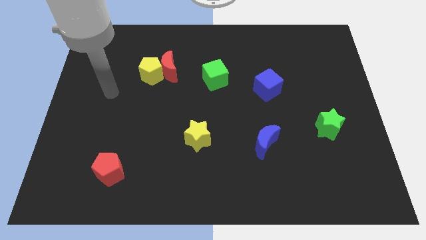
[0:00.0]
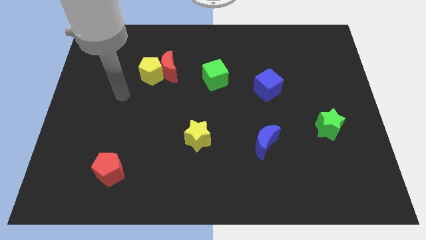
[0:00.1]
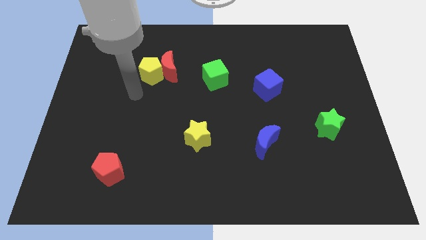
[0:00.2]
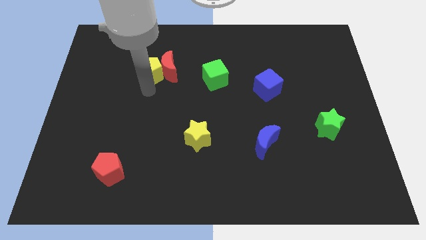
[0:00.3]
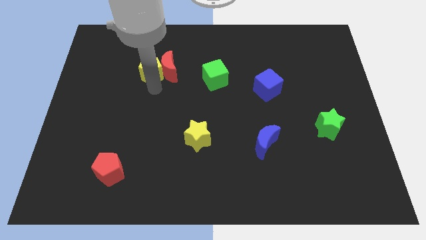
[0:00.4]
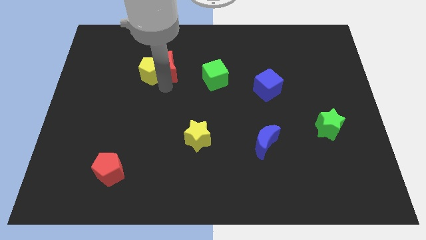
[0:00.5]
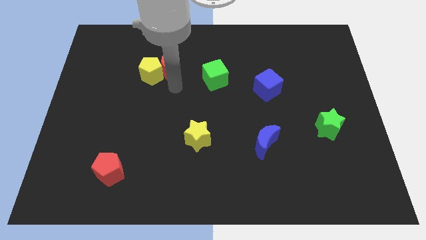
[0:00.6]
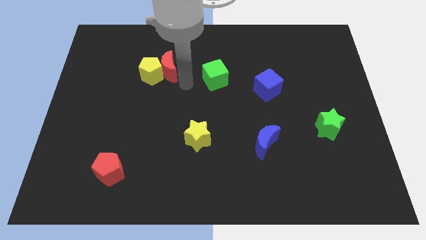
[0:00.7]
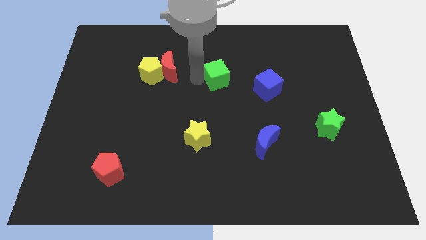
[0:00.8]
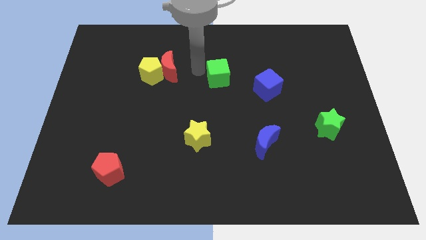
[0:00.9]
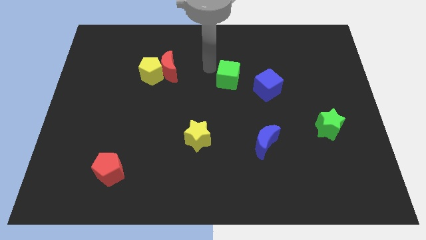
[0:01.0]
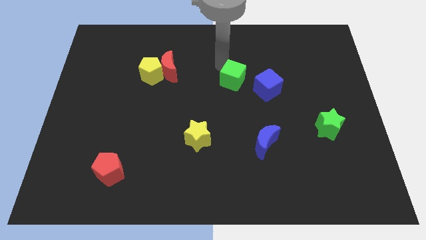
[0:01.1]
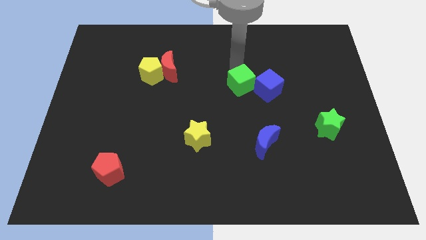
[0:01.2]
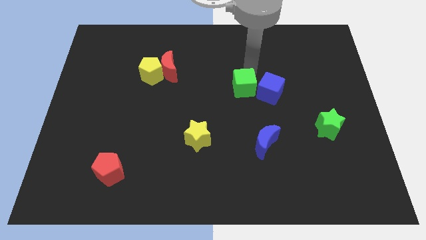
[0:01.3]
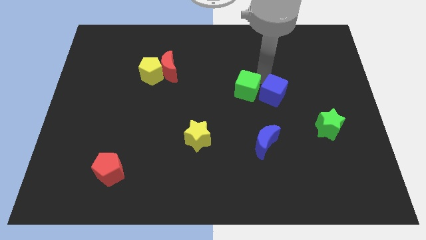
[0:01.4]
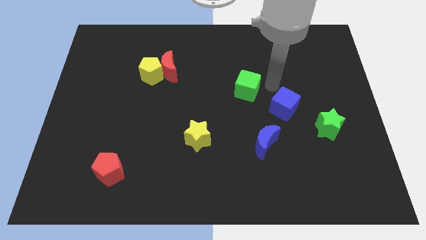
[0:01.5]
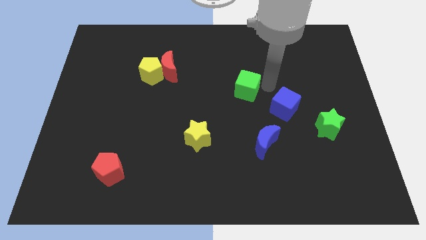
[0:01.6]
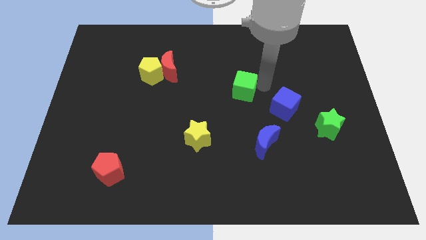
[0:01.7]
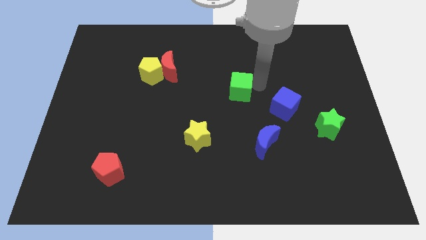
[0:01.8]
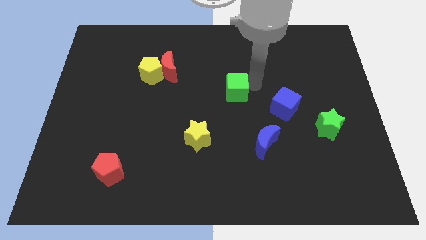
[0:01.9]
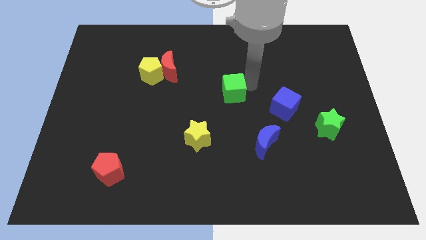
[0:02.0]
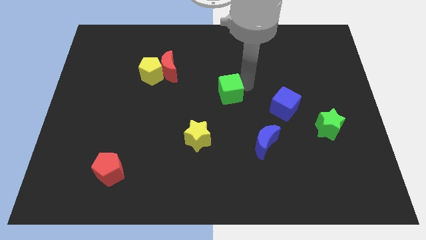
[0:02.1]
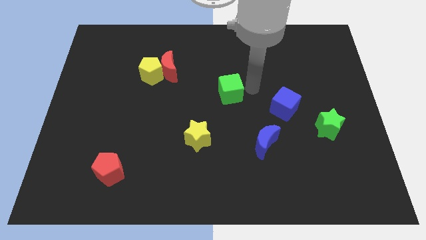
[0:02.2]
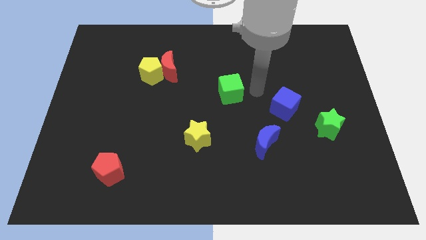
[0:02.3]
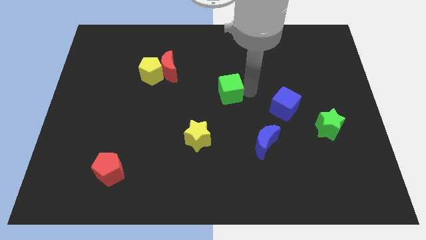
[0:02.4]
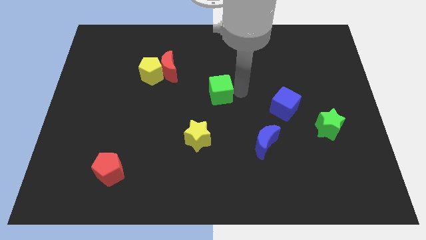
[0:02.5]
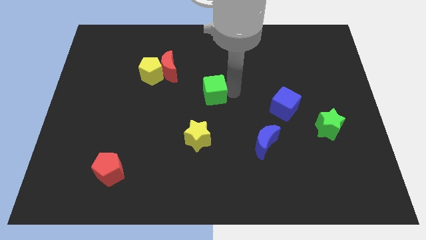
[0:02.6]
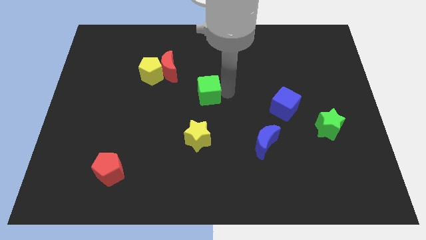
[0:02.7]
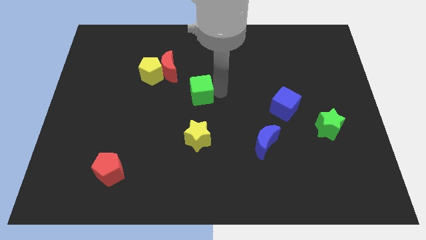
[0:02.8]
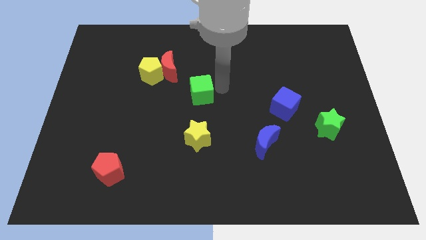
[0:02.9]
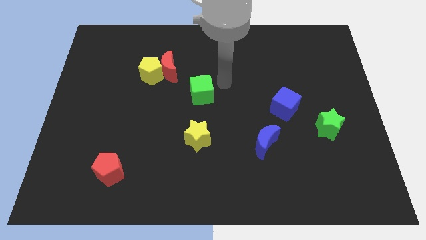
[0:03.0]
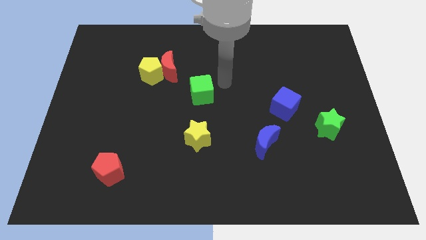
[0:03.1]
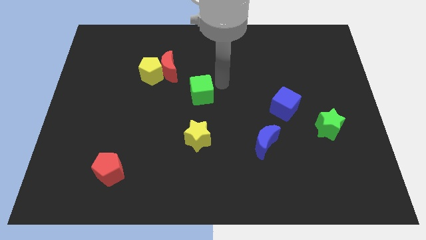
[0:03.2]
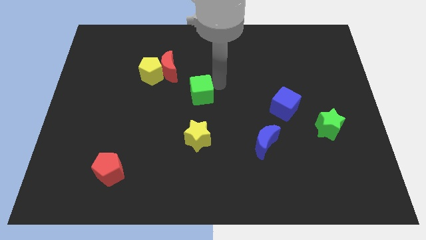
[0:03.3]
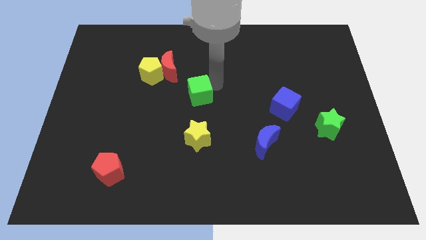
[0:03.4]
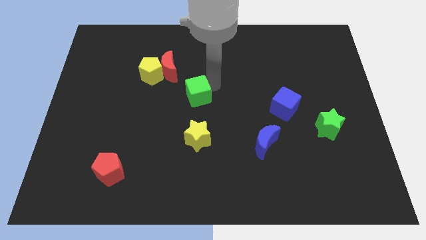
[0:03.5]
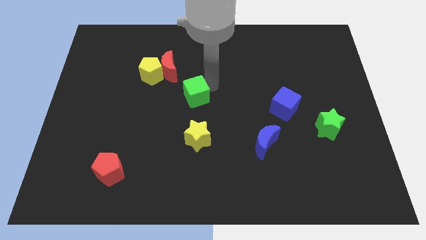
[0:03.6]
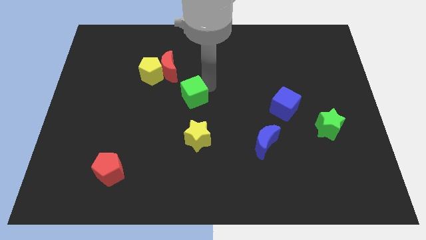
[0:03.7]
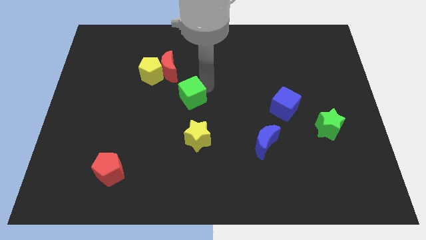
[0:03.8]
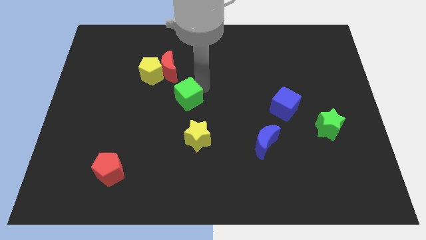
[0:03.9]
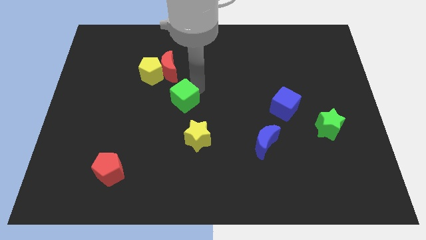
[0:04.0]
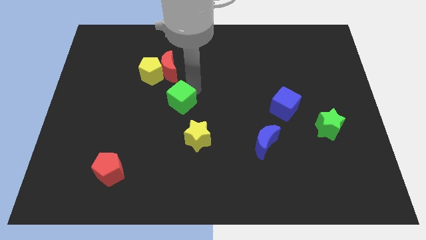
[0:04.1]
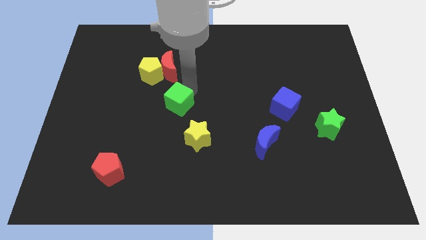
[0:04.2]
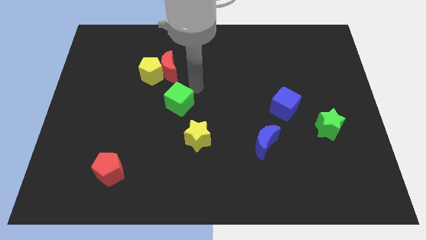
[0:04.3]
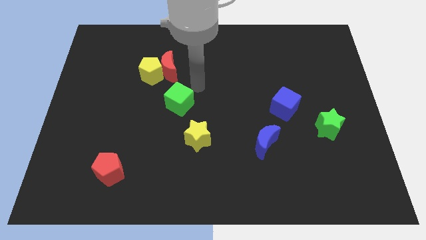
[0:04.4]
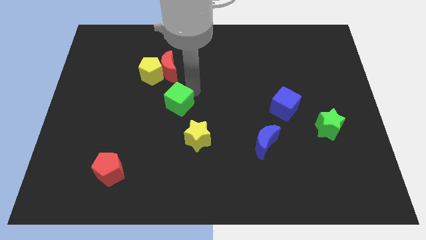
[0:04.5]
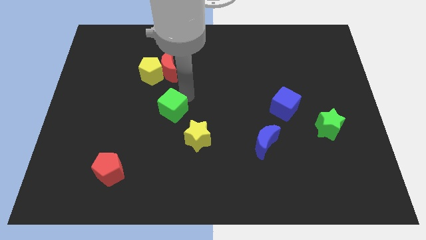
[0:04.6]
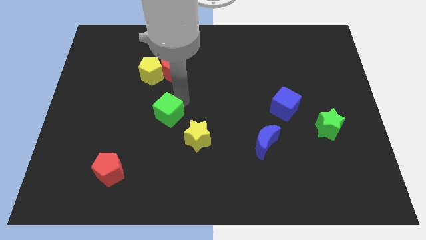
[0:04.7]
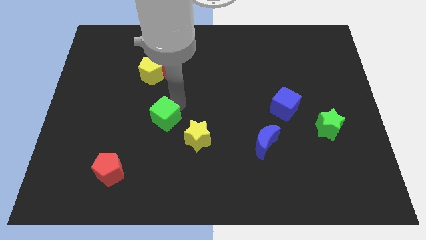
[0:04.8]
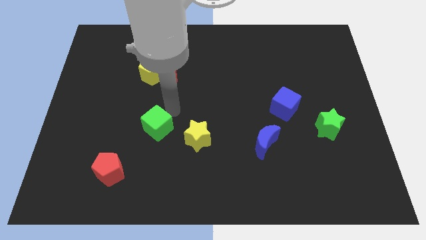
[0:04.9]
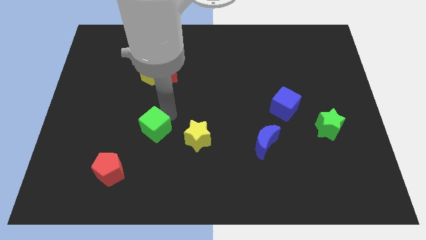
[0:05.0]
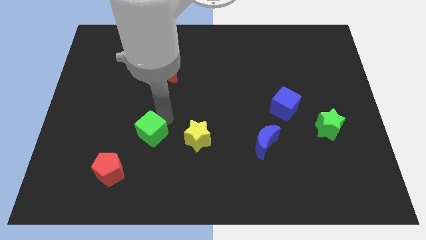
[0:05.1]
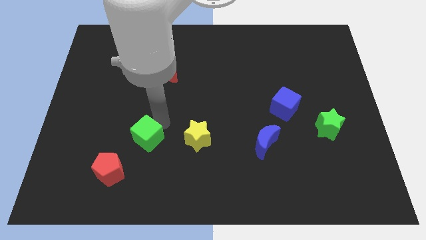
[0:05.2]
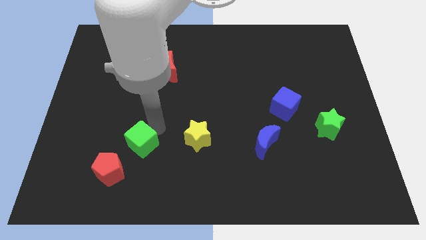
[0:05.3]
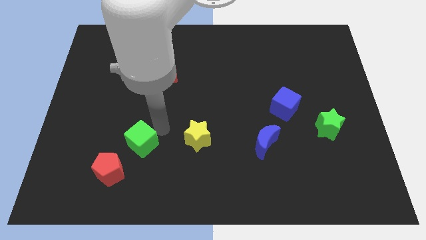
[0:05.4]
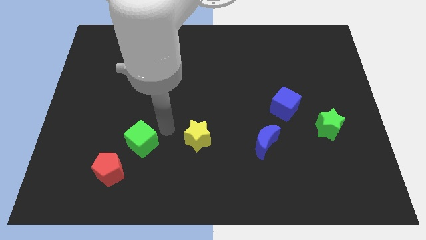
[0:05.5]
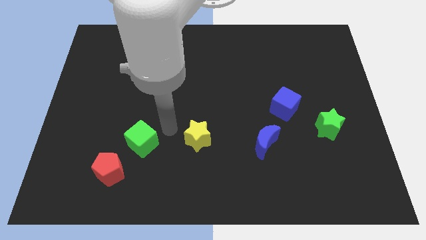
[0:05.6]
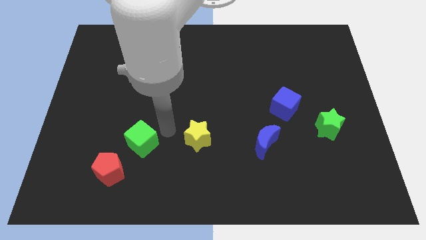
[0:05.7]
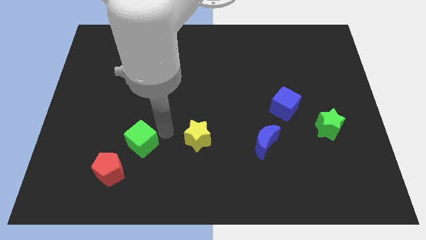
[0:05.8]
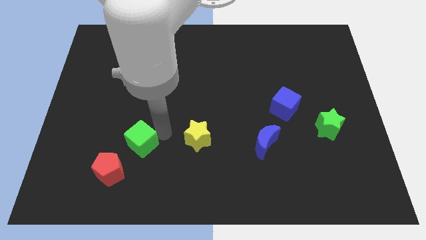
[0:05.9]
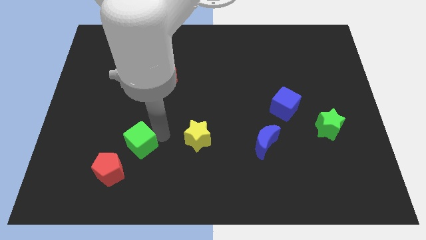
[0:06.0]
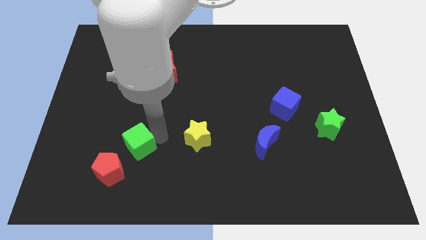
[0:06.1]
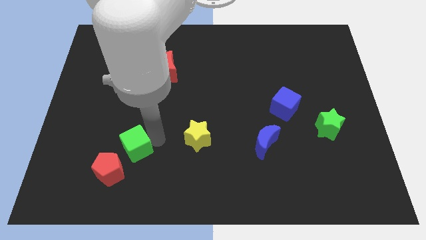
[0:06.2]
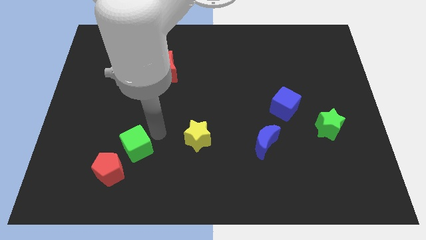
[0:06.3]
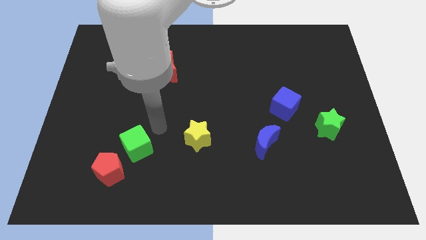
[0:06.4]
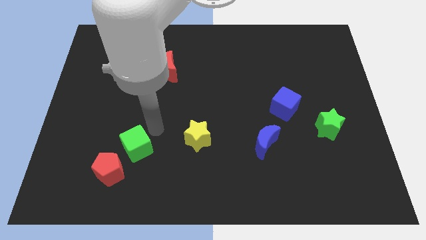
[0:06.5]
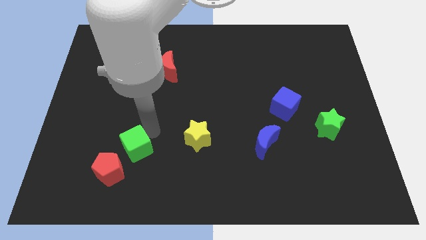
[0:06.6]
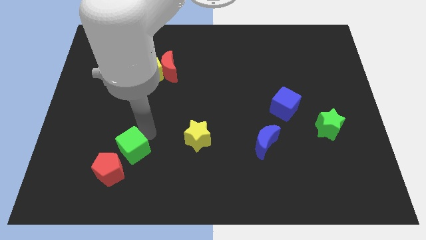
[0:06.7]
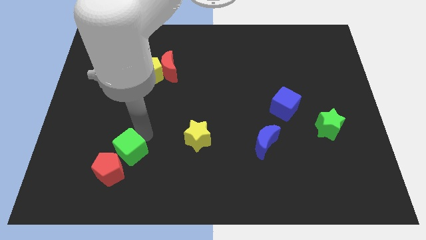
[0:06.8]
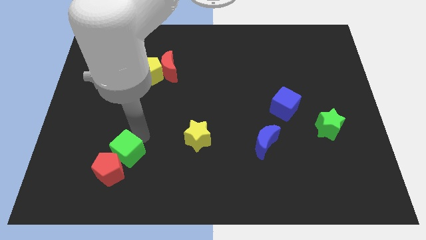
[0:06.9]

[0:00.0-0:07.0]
push the green cube towards the red pentagon

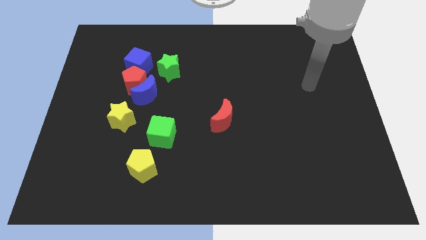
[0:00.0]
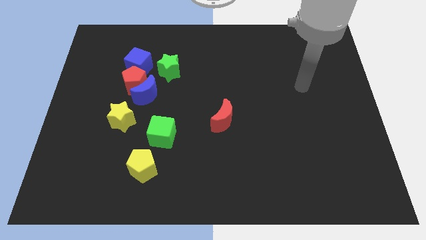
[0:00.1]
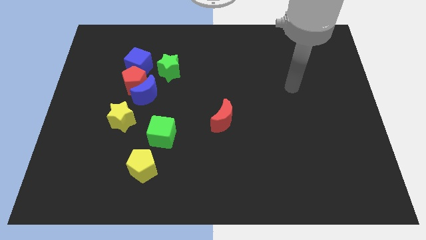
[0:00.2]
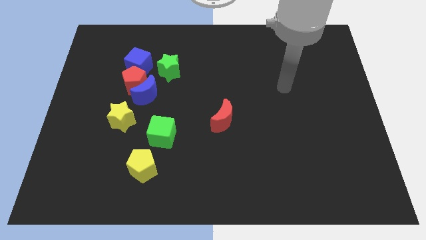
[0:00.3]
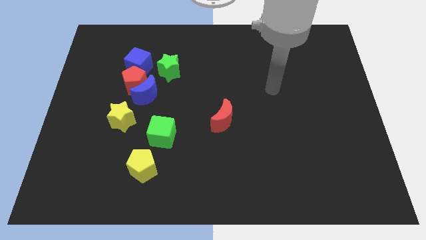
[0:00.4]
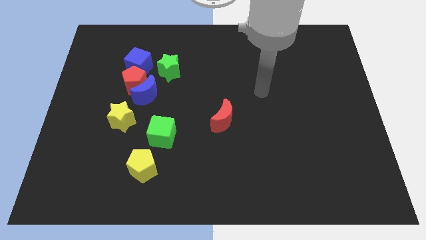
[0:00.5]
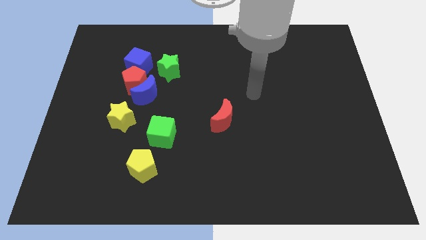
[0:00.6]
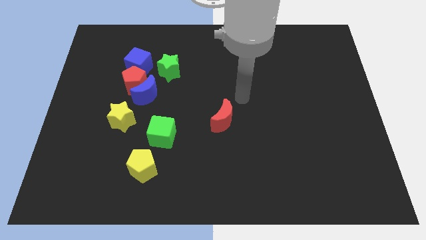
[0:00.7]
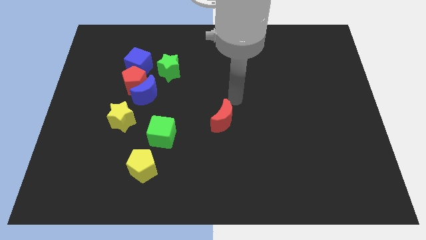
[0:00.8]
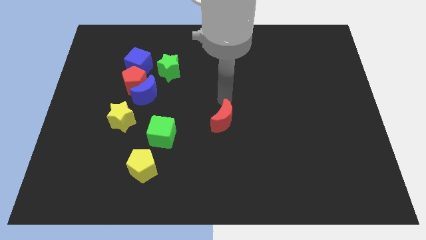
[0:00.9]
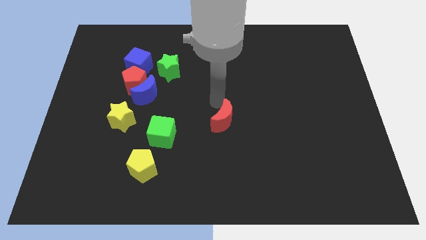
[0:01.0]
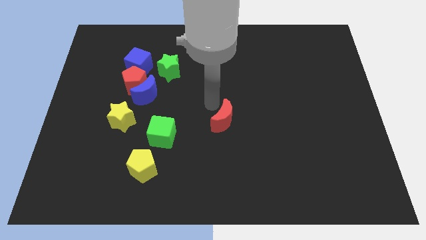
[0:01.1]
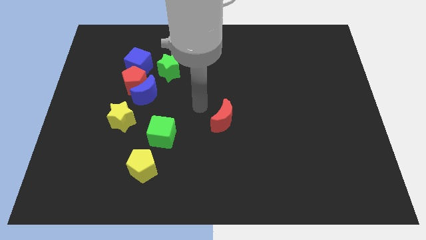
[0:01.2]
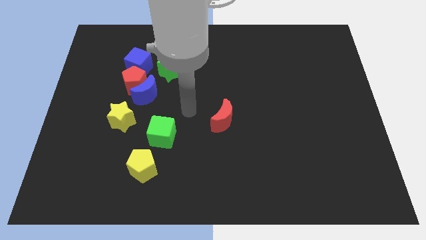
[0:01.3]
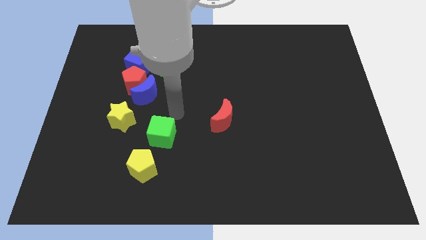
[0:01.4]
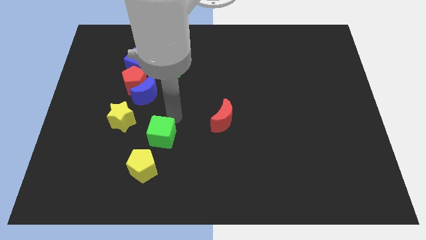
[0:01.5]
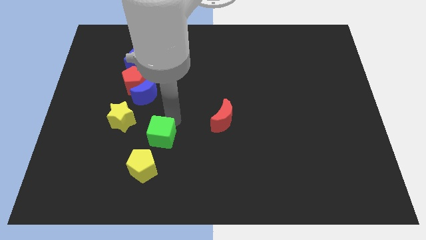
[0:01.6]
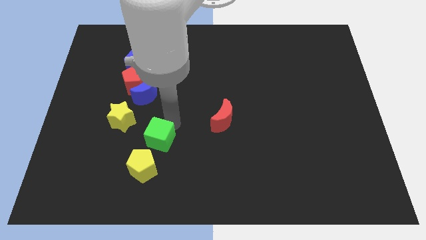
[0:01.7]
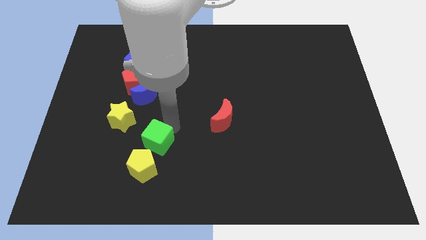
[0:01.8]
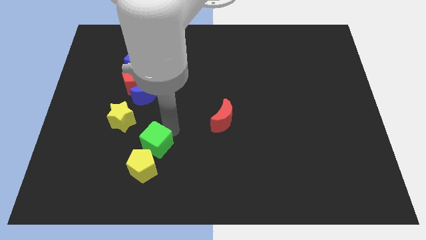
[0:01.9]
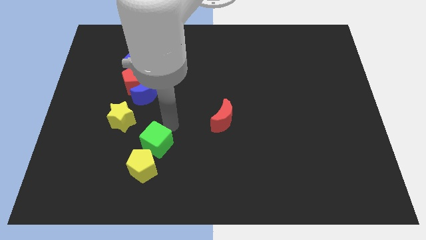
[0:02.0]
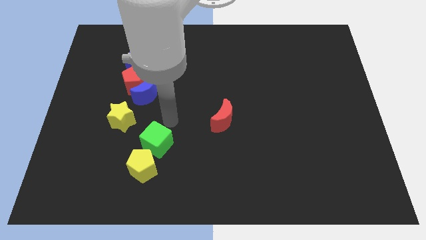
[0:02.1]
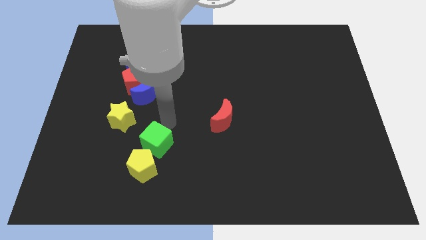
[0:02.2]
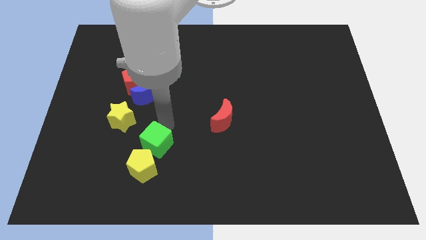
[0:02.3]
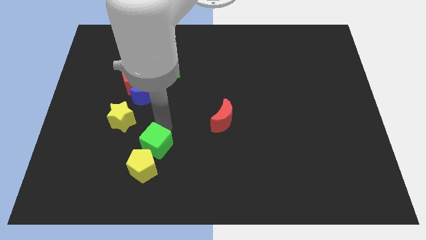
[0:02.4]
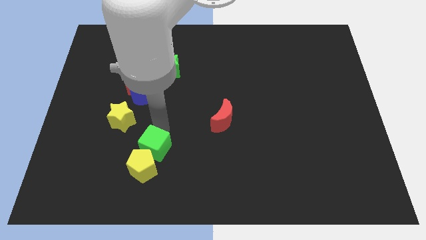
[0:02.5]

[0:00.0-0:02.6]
move the green cube to the yellow pentagon
